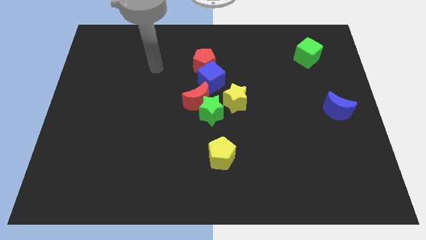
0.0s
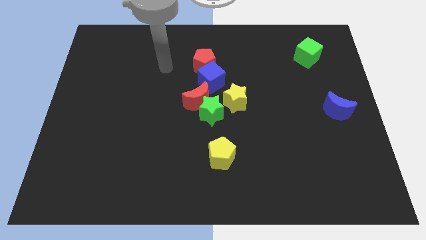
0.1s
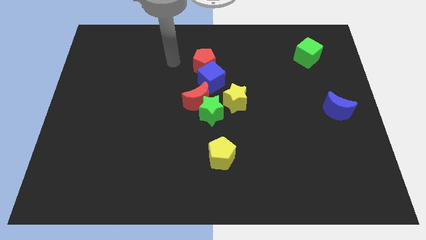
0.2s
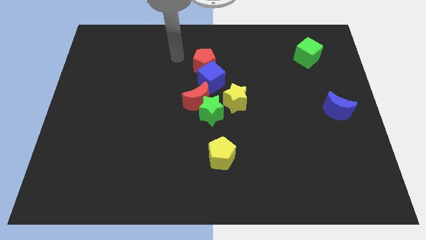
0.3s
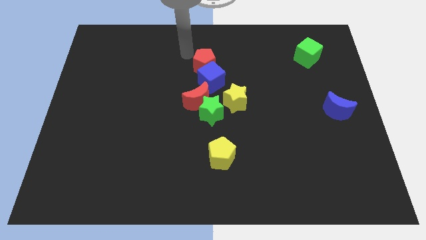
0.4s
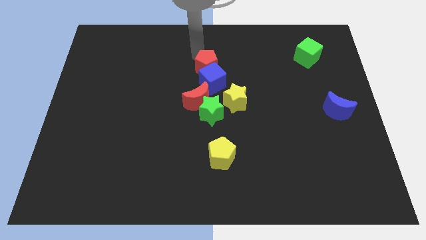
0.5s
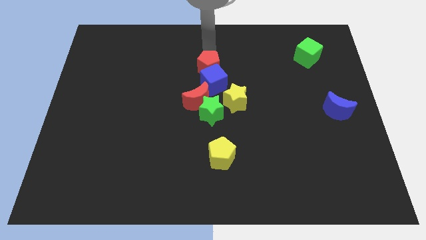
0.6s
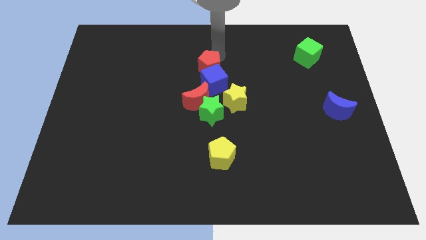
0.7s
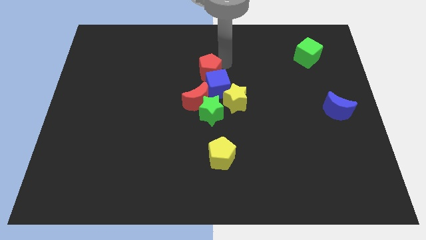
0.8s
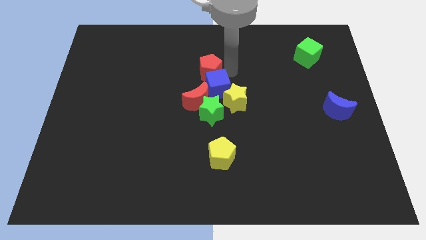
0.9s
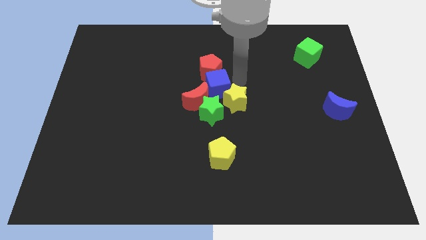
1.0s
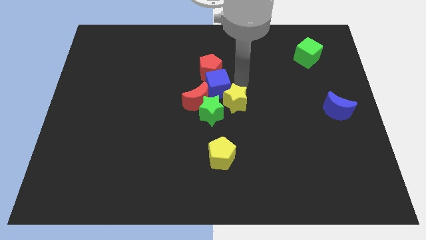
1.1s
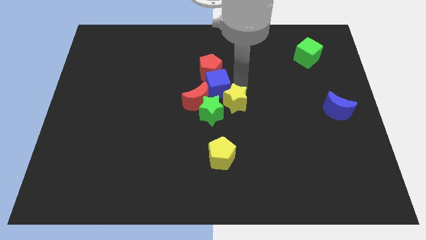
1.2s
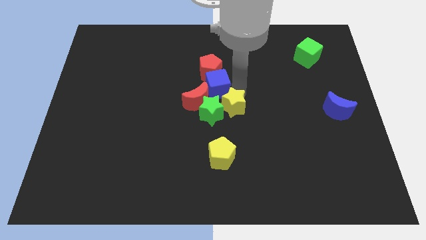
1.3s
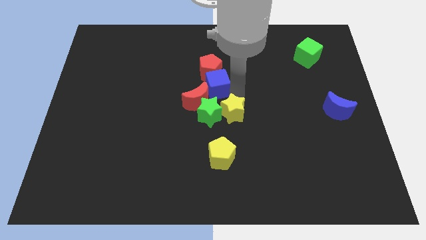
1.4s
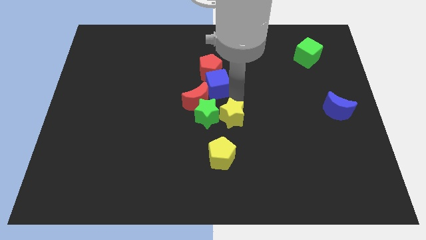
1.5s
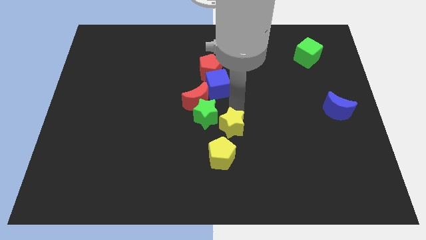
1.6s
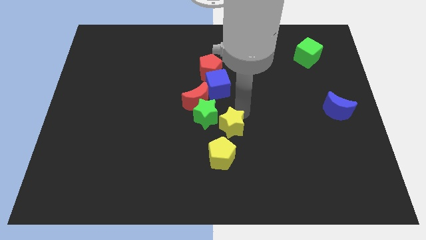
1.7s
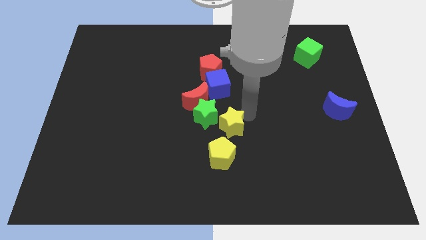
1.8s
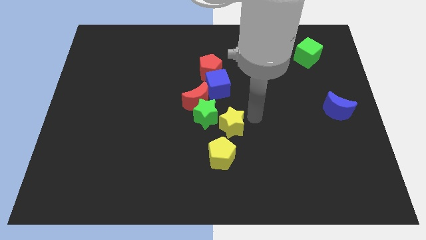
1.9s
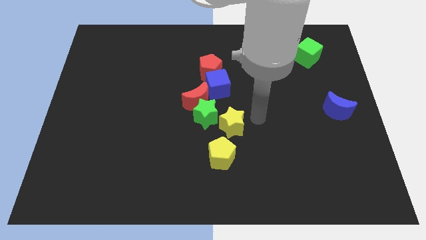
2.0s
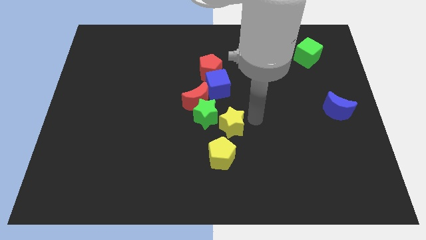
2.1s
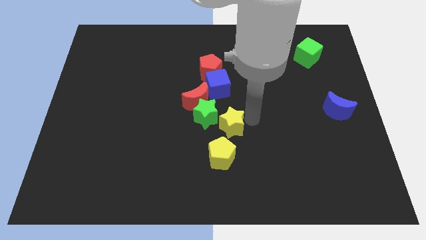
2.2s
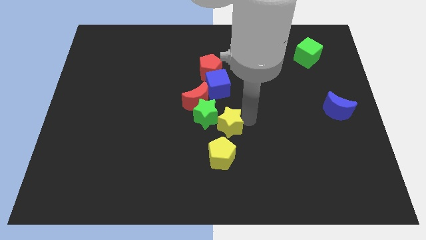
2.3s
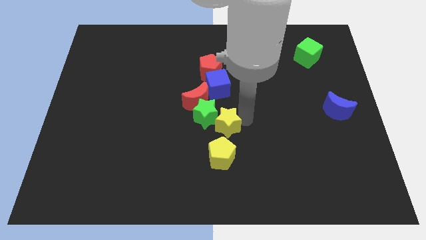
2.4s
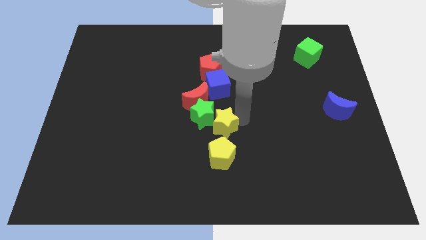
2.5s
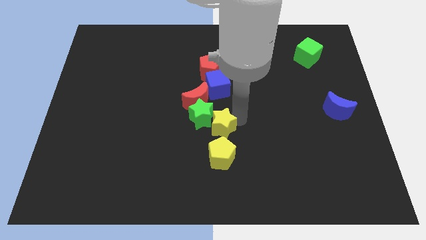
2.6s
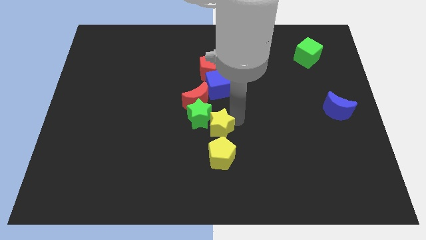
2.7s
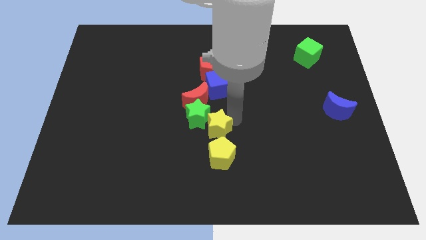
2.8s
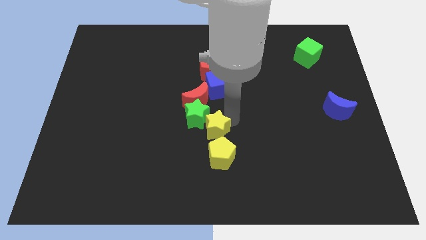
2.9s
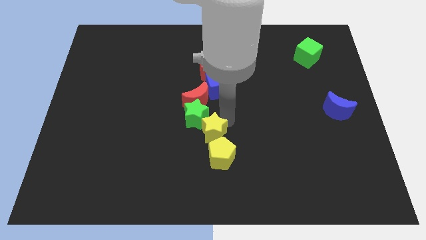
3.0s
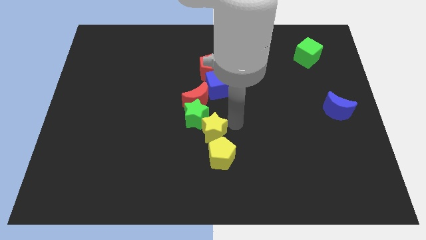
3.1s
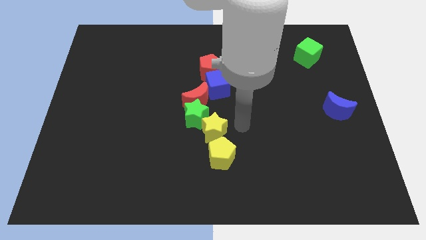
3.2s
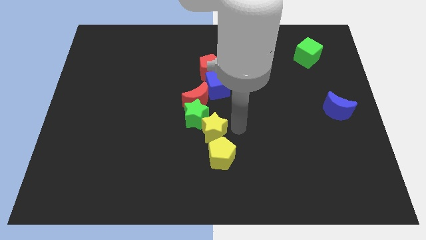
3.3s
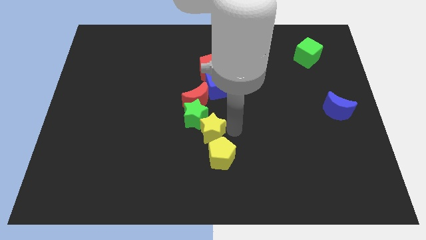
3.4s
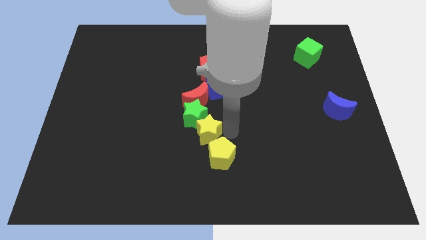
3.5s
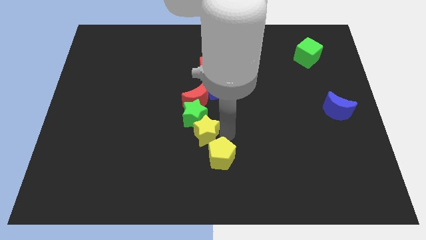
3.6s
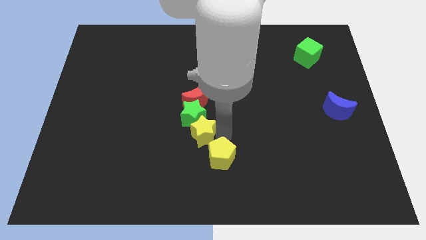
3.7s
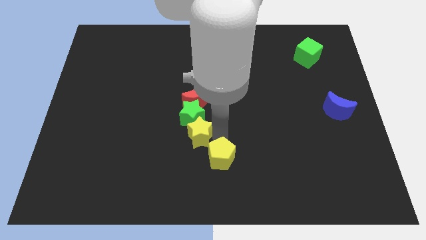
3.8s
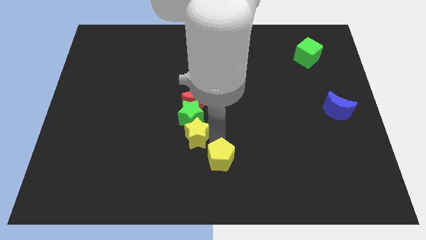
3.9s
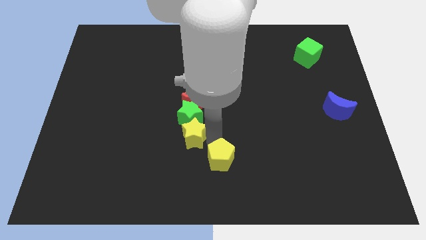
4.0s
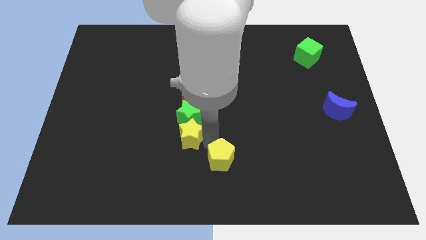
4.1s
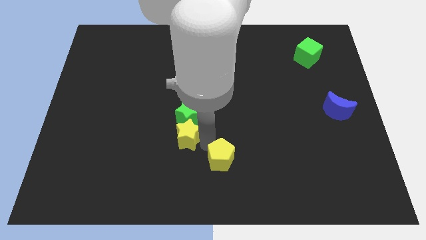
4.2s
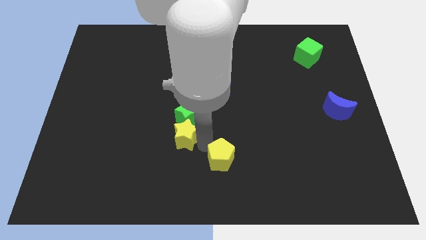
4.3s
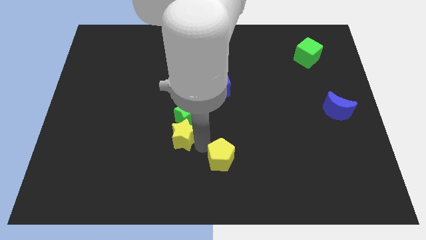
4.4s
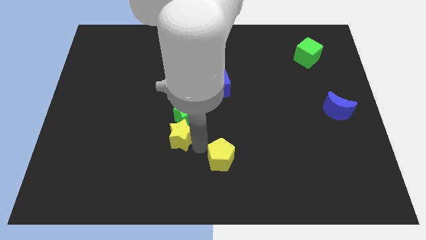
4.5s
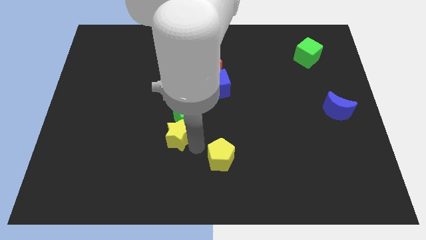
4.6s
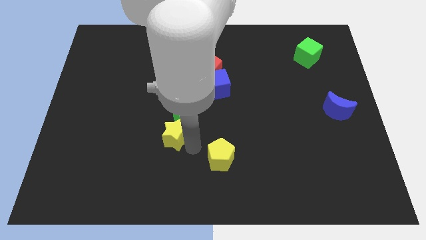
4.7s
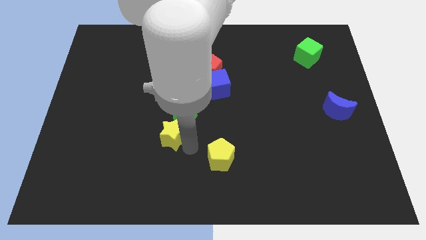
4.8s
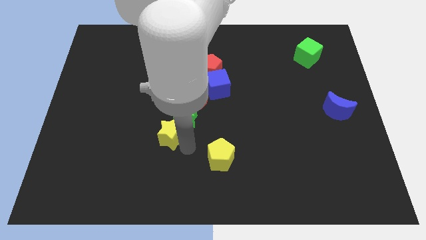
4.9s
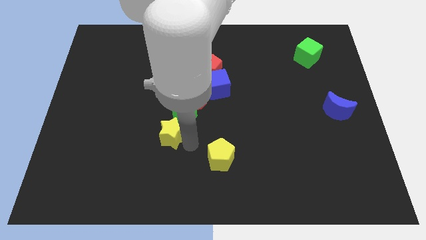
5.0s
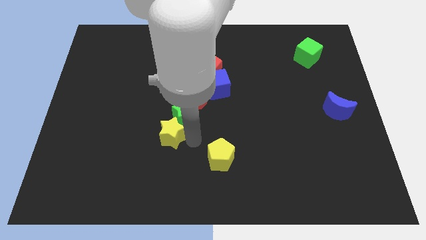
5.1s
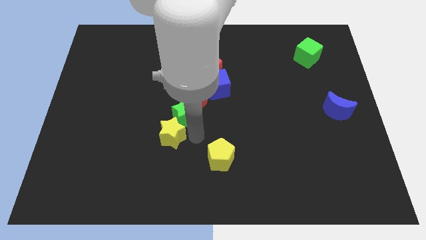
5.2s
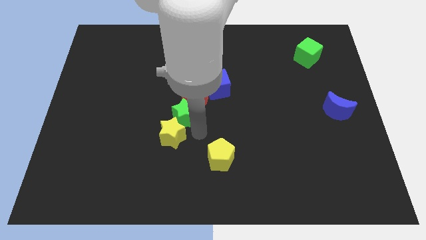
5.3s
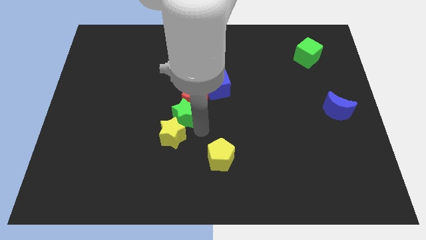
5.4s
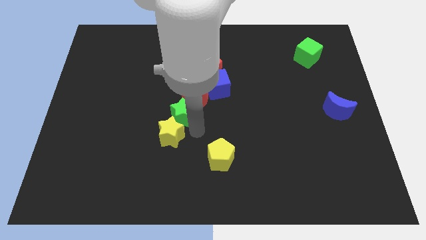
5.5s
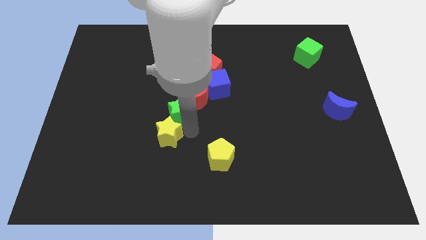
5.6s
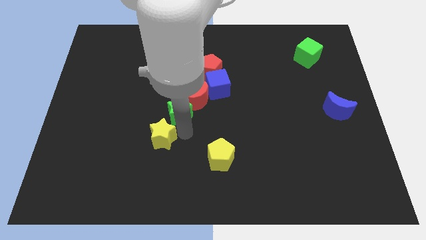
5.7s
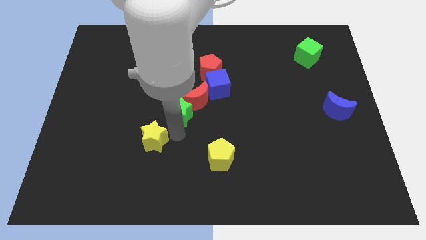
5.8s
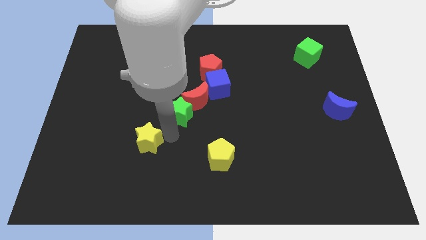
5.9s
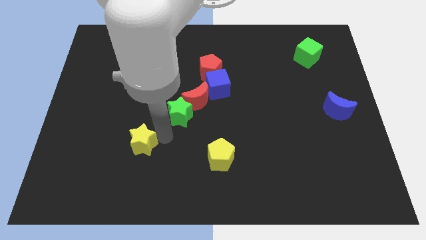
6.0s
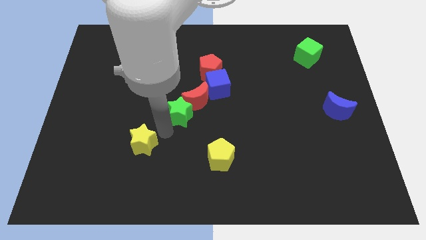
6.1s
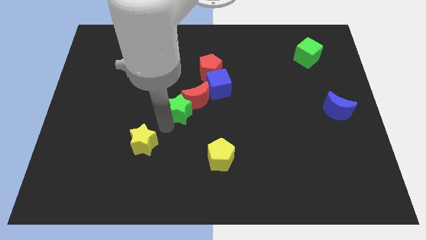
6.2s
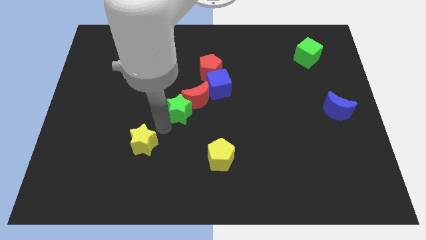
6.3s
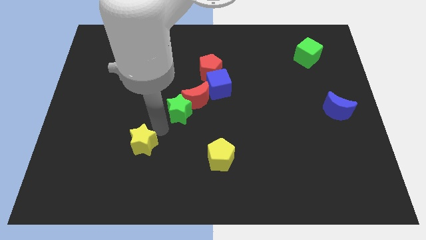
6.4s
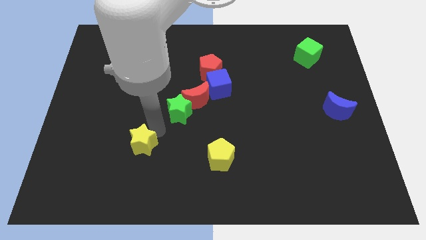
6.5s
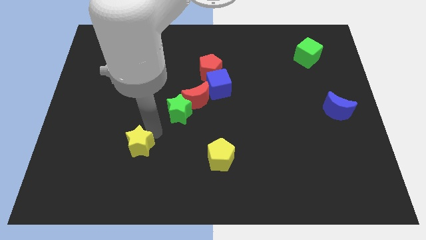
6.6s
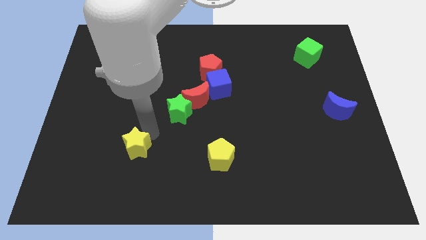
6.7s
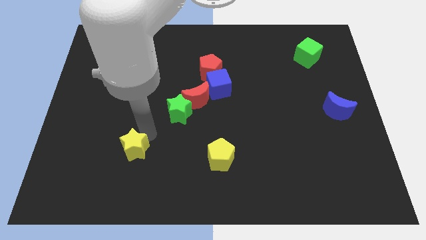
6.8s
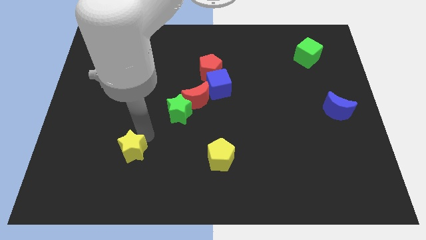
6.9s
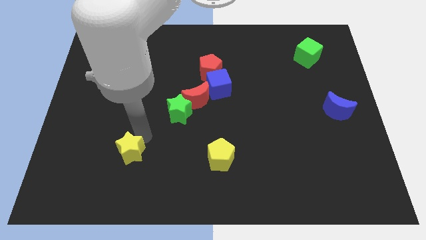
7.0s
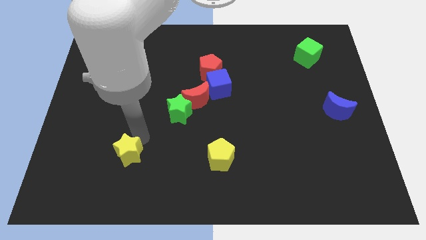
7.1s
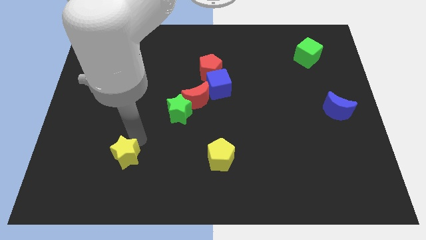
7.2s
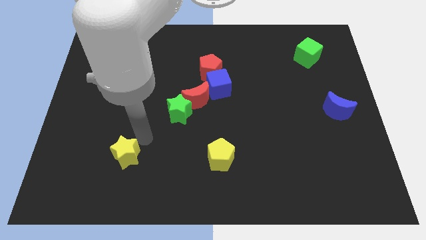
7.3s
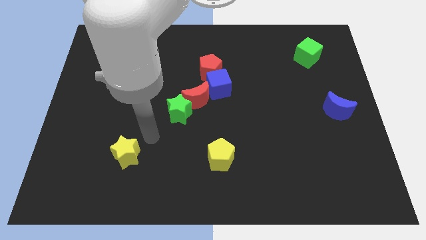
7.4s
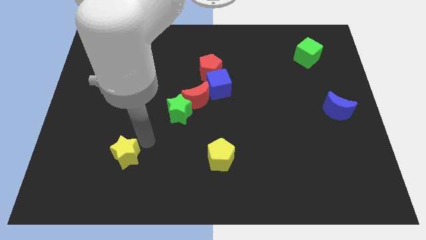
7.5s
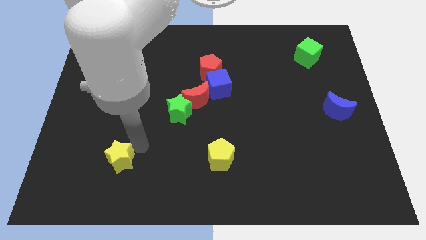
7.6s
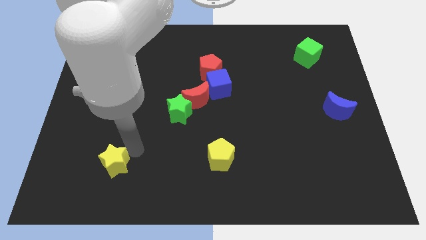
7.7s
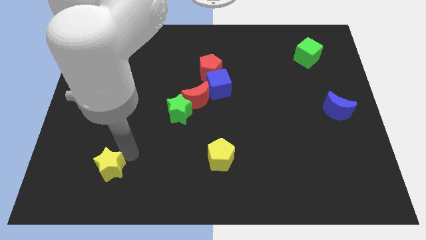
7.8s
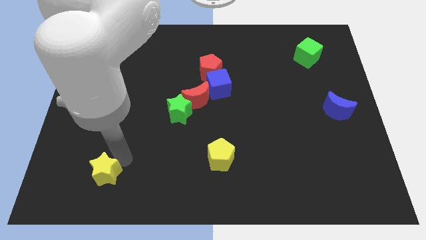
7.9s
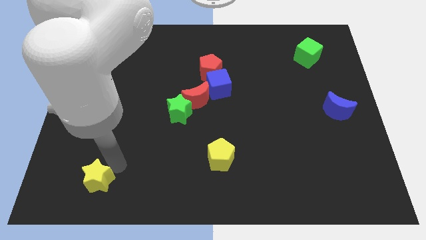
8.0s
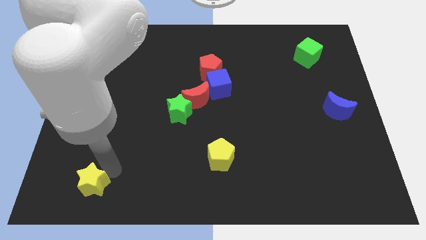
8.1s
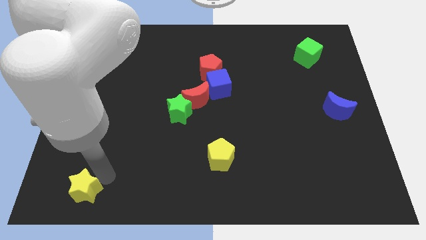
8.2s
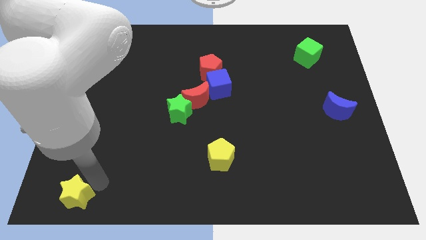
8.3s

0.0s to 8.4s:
push the yellow star to the bottom left
